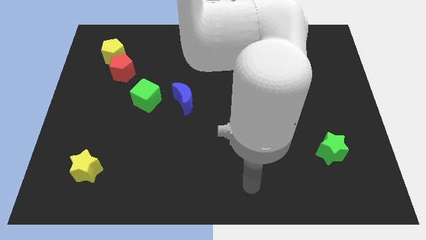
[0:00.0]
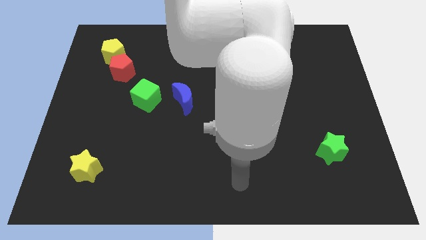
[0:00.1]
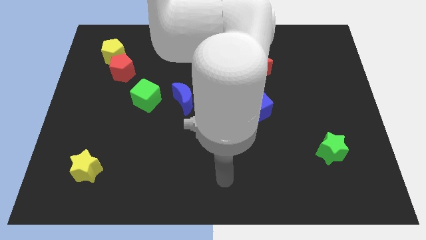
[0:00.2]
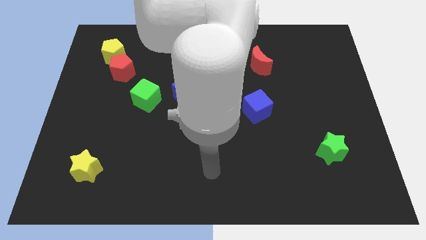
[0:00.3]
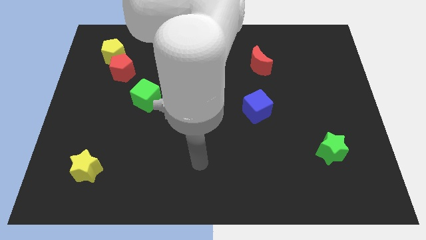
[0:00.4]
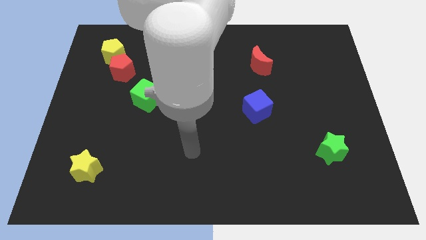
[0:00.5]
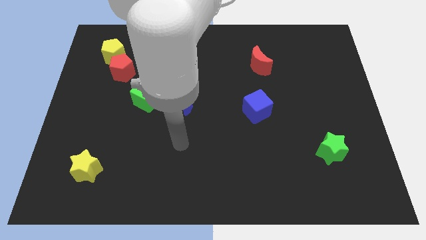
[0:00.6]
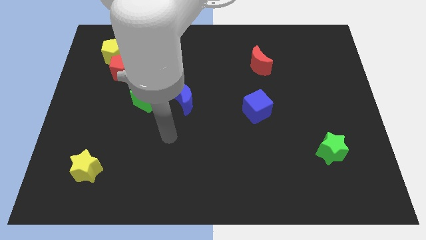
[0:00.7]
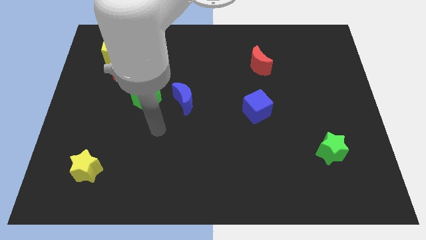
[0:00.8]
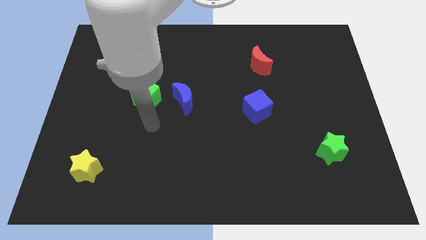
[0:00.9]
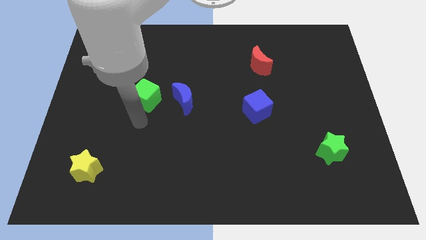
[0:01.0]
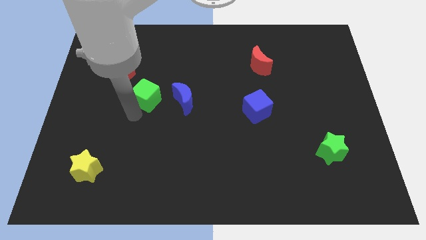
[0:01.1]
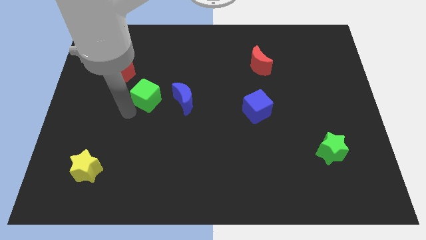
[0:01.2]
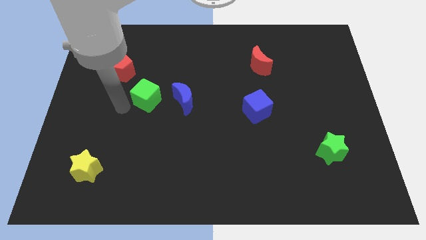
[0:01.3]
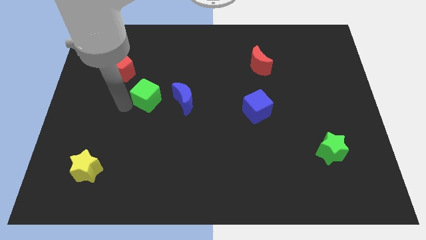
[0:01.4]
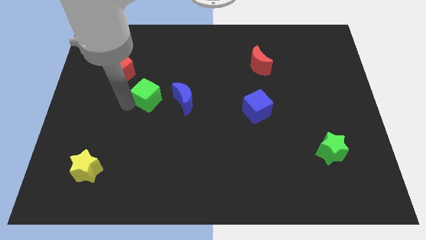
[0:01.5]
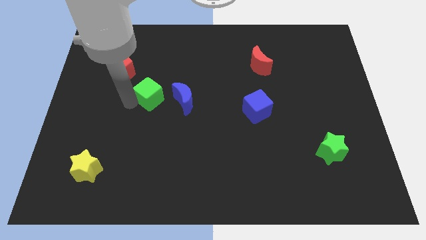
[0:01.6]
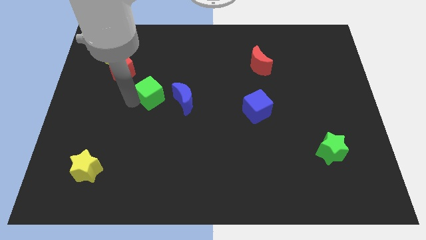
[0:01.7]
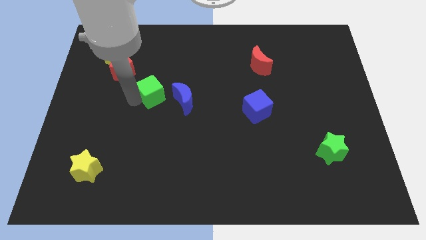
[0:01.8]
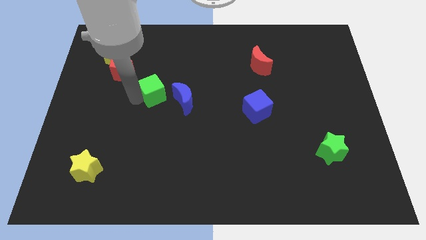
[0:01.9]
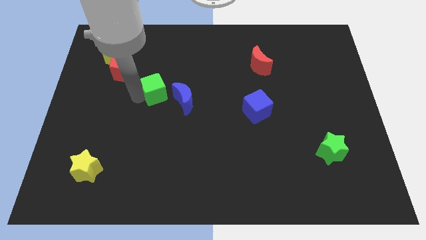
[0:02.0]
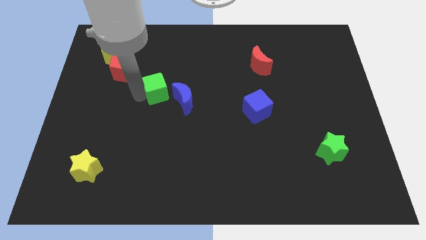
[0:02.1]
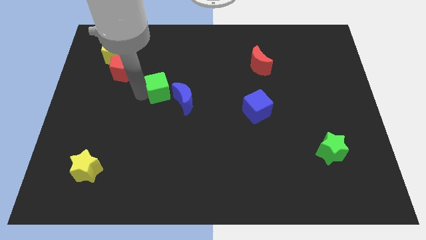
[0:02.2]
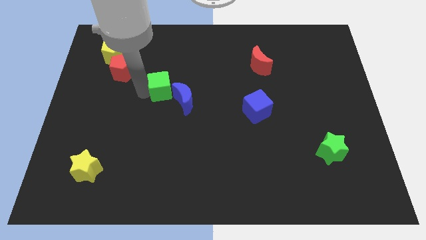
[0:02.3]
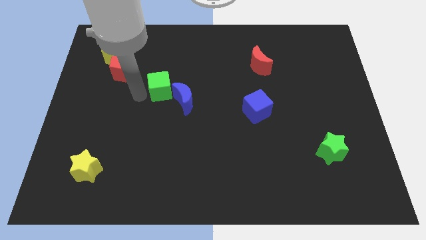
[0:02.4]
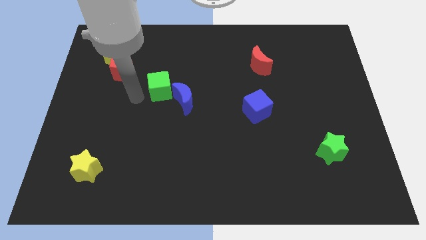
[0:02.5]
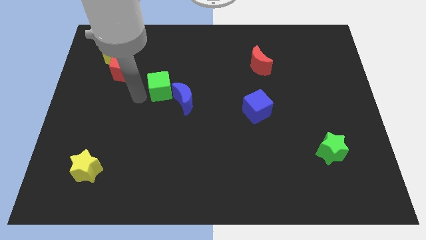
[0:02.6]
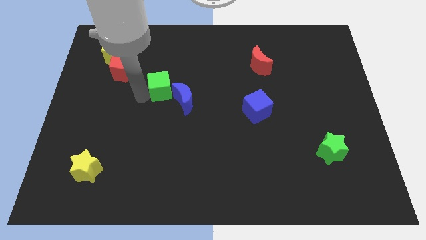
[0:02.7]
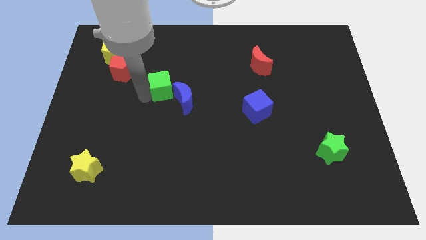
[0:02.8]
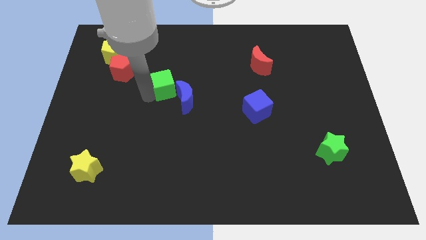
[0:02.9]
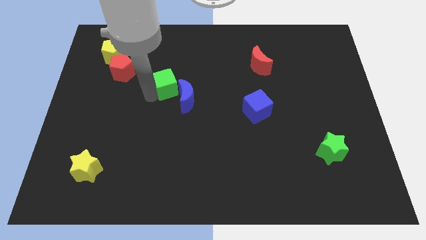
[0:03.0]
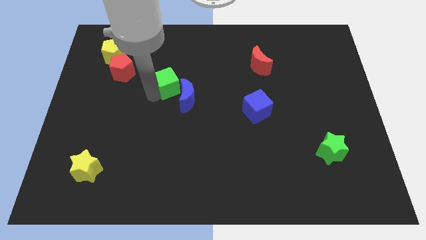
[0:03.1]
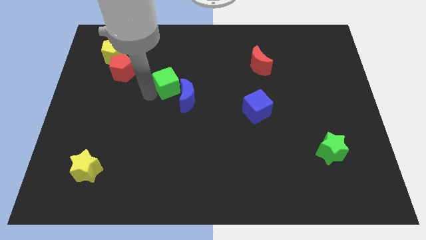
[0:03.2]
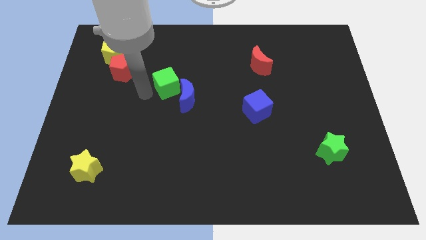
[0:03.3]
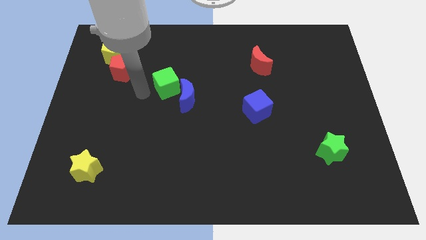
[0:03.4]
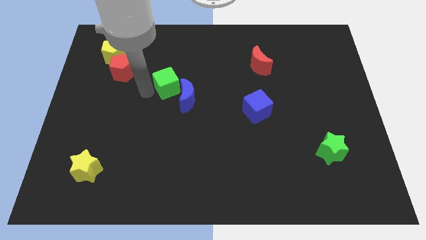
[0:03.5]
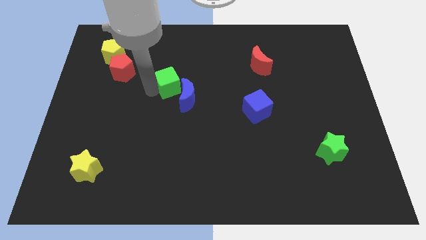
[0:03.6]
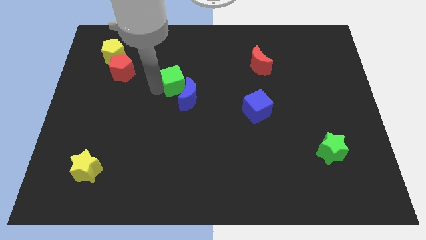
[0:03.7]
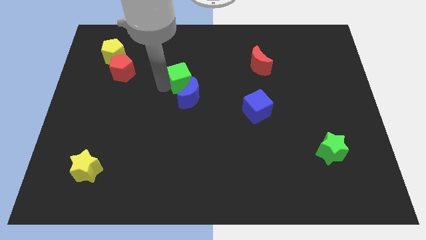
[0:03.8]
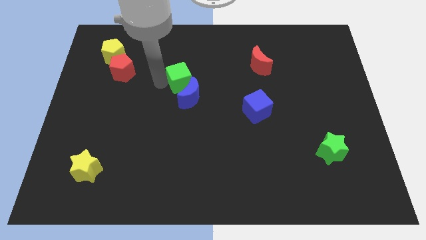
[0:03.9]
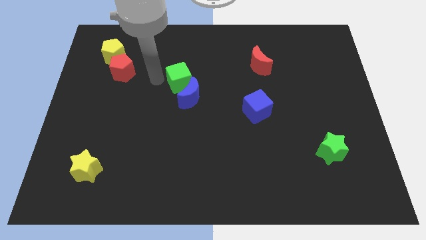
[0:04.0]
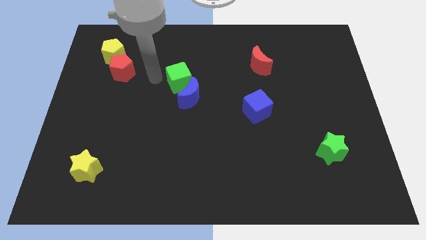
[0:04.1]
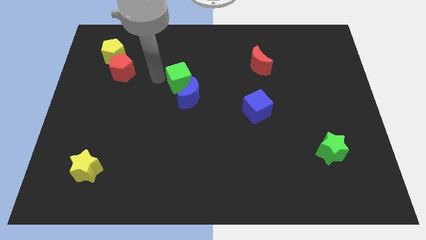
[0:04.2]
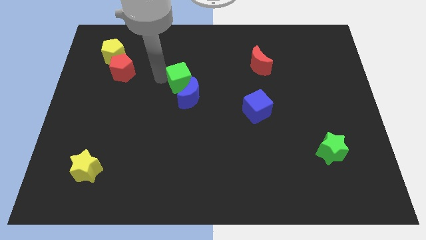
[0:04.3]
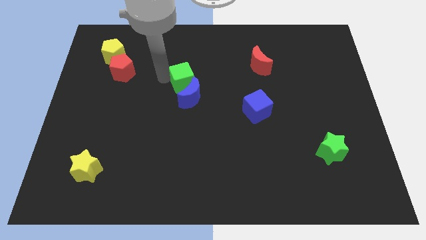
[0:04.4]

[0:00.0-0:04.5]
slide the green cube a little right

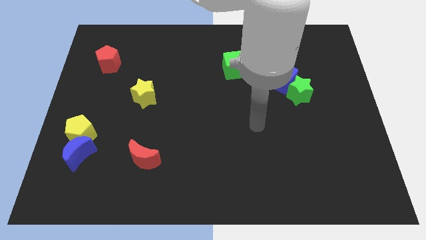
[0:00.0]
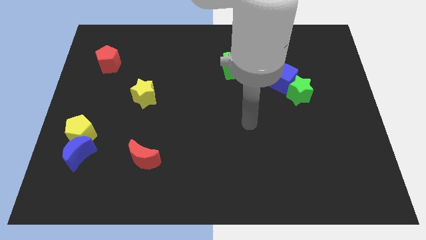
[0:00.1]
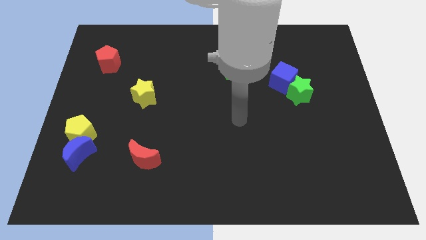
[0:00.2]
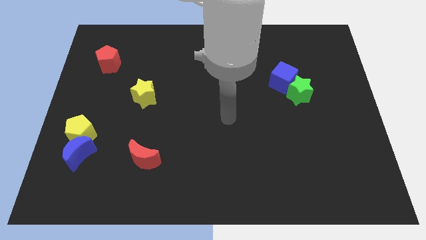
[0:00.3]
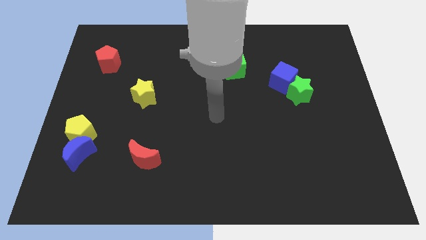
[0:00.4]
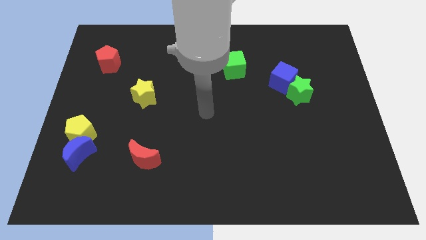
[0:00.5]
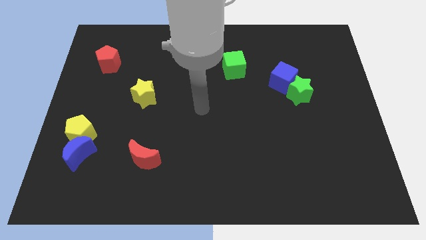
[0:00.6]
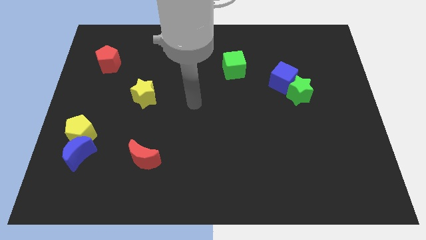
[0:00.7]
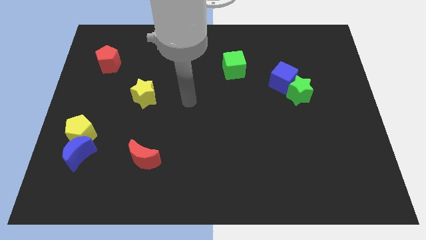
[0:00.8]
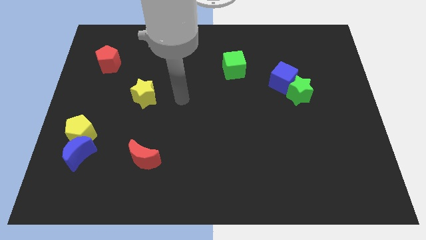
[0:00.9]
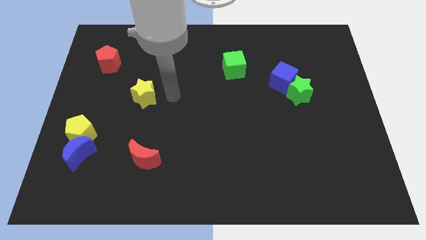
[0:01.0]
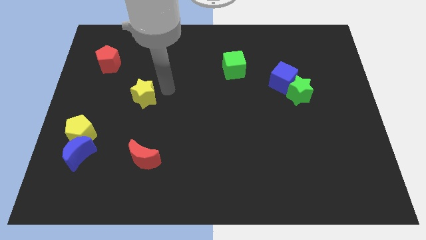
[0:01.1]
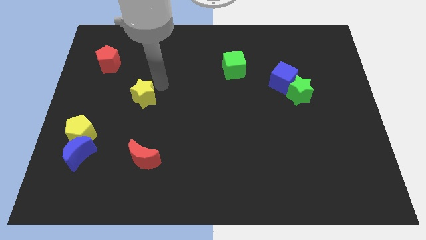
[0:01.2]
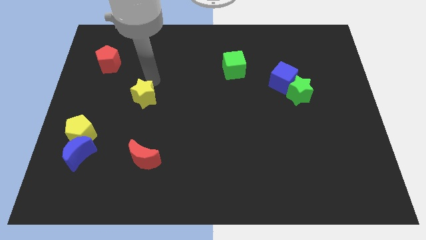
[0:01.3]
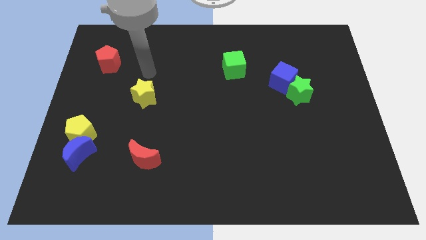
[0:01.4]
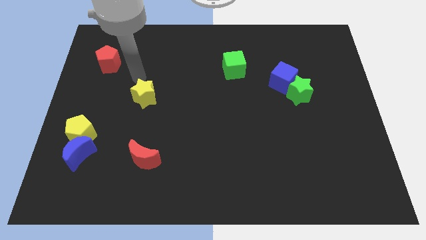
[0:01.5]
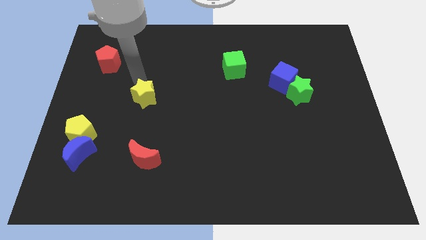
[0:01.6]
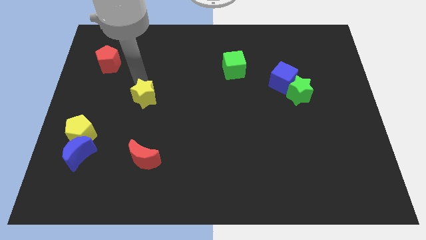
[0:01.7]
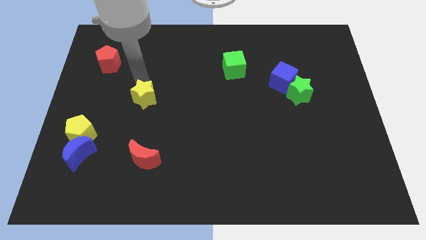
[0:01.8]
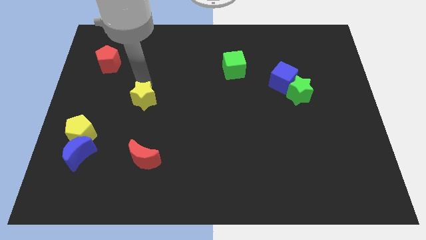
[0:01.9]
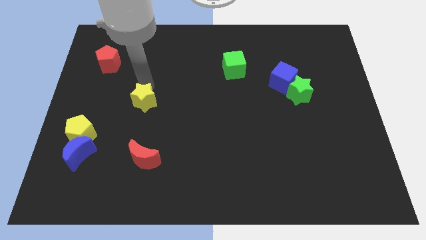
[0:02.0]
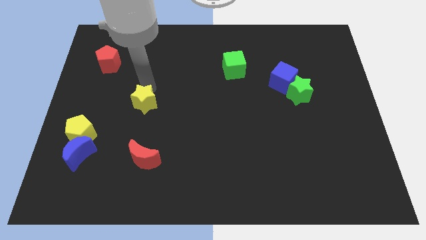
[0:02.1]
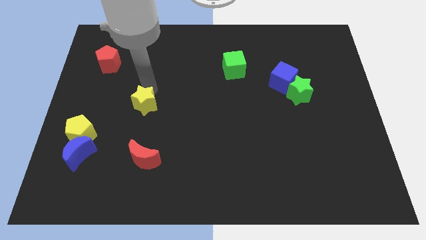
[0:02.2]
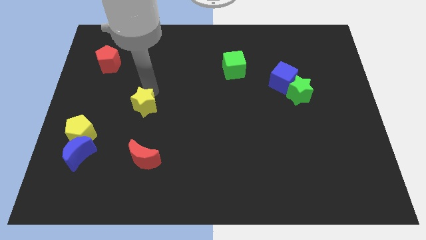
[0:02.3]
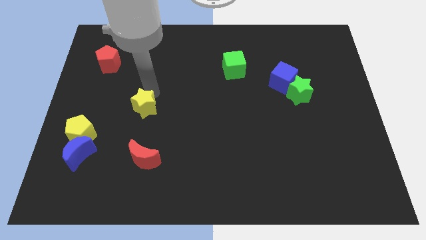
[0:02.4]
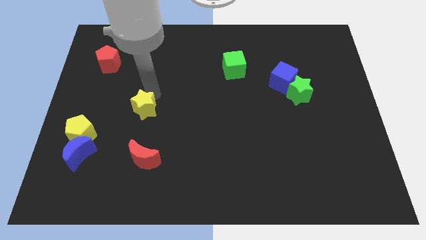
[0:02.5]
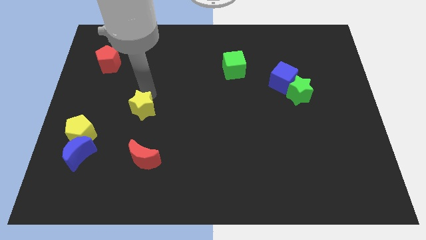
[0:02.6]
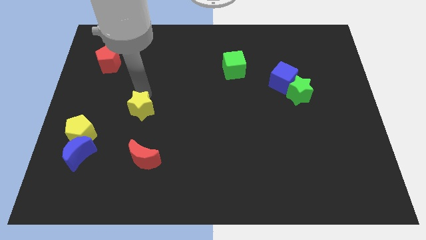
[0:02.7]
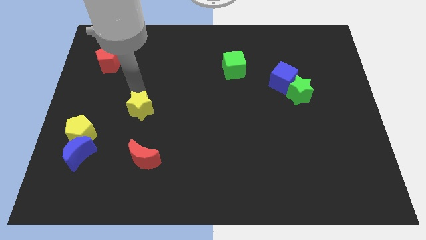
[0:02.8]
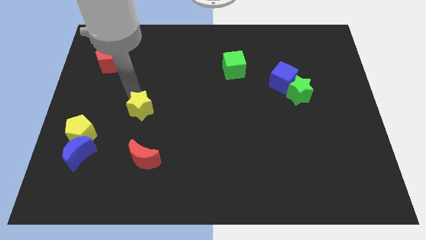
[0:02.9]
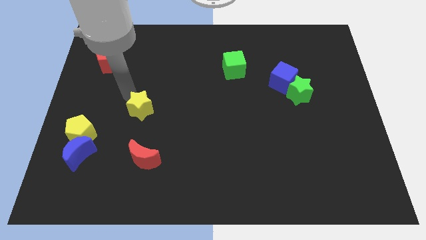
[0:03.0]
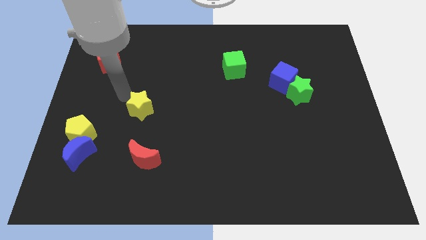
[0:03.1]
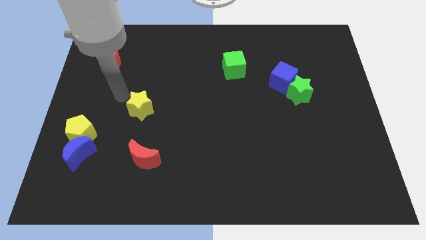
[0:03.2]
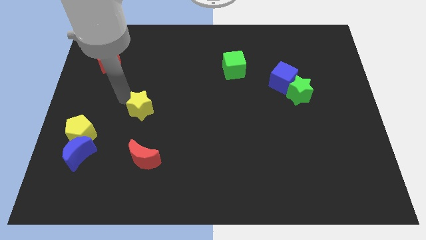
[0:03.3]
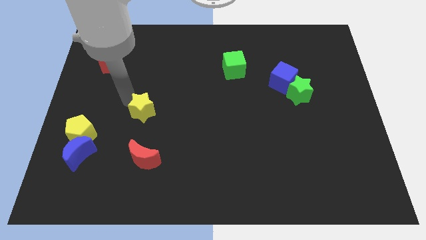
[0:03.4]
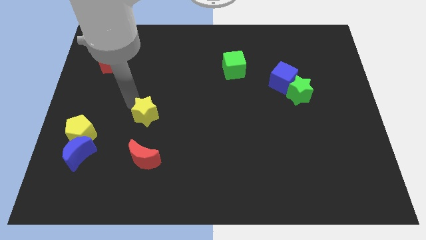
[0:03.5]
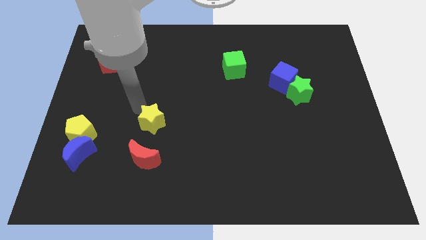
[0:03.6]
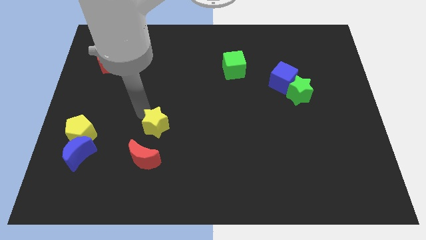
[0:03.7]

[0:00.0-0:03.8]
move the yellow star a little down and right
